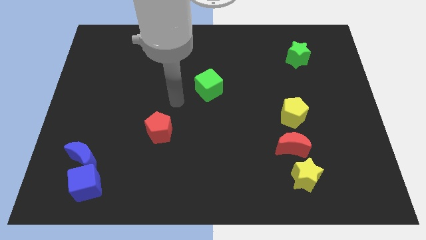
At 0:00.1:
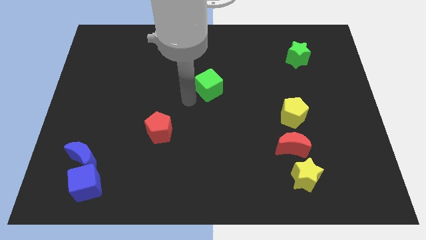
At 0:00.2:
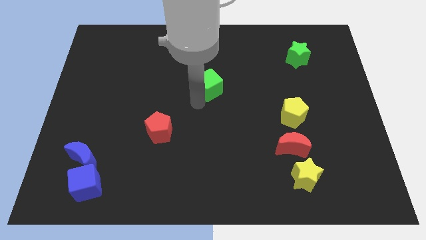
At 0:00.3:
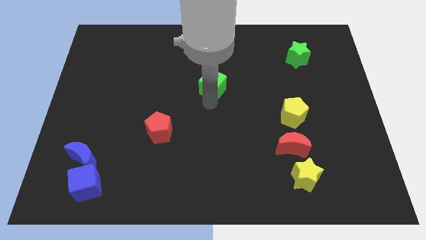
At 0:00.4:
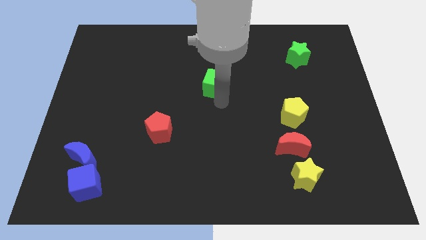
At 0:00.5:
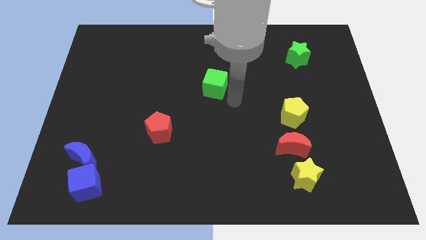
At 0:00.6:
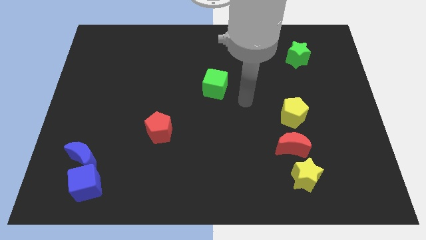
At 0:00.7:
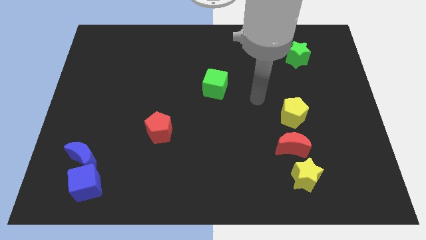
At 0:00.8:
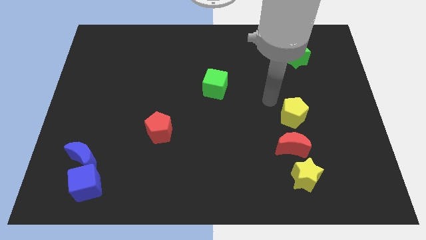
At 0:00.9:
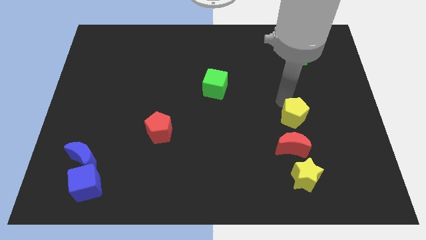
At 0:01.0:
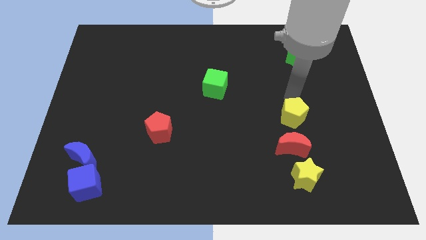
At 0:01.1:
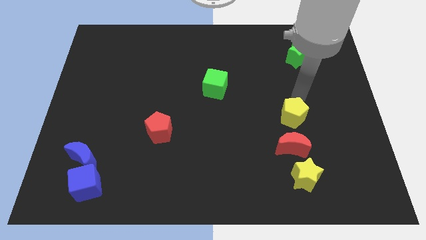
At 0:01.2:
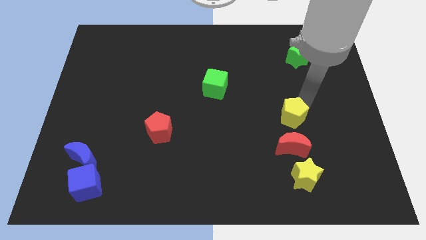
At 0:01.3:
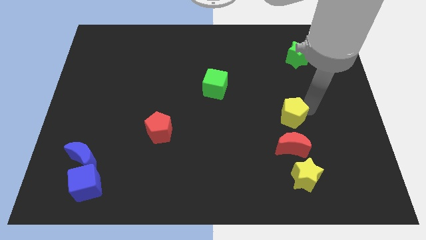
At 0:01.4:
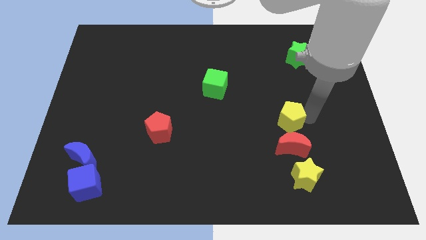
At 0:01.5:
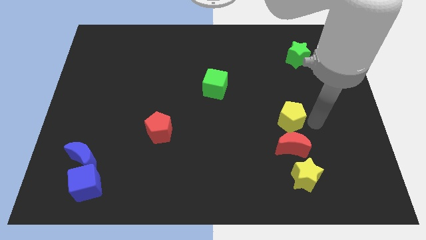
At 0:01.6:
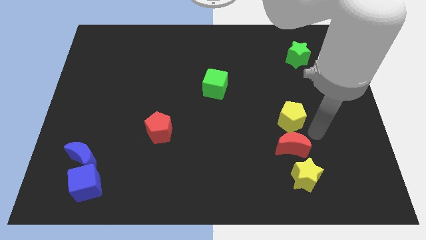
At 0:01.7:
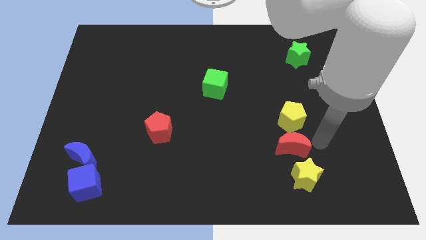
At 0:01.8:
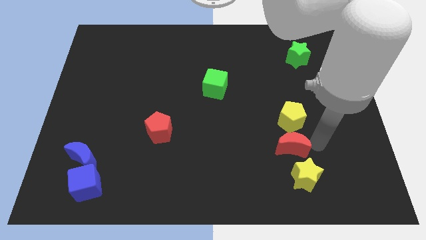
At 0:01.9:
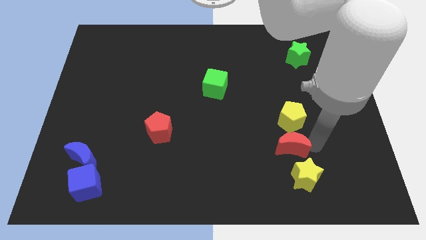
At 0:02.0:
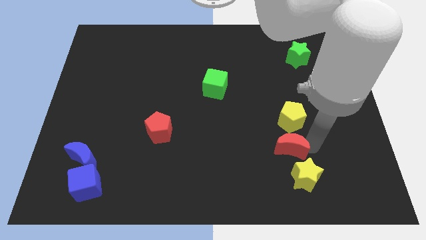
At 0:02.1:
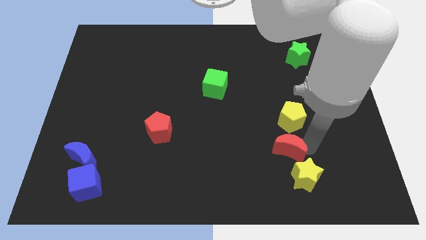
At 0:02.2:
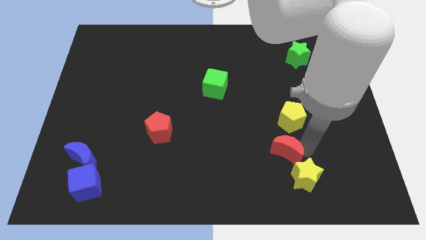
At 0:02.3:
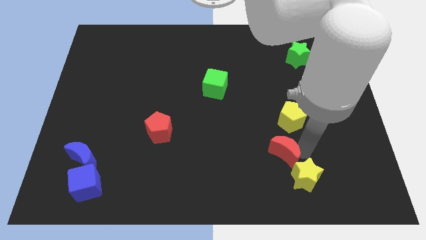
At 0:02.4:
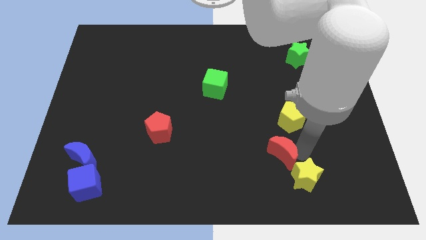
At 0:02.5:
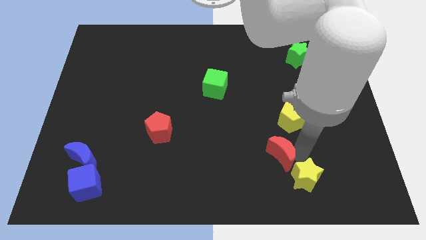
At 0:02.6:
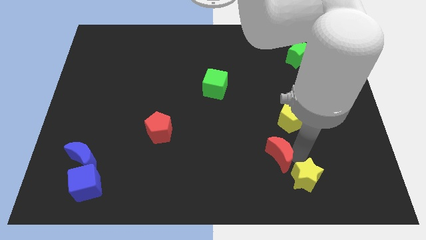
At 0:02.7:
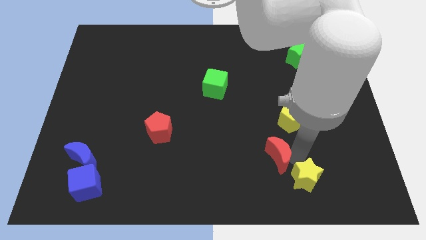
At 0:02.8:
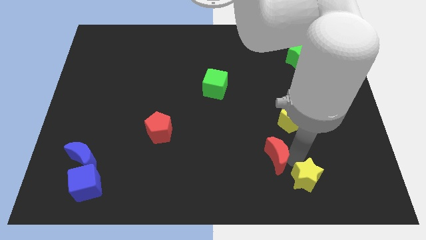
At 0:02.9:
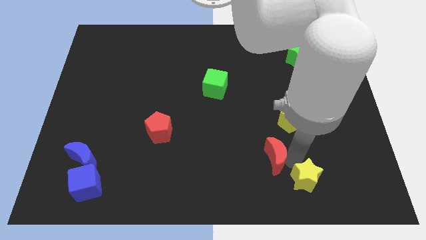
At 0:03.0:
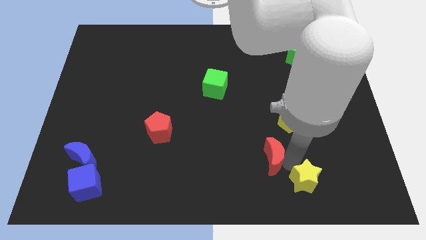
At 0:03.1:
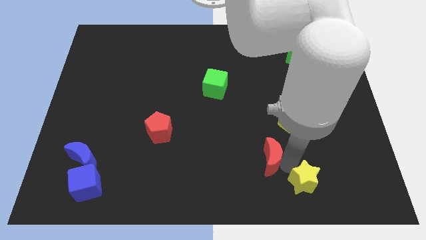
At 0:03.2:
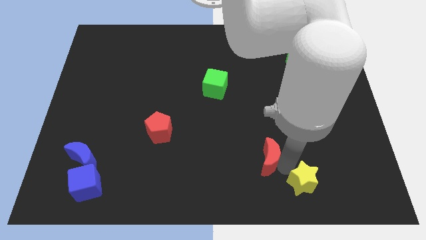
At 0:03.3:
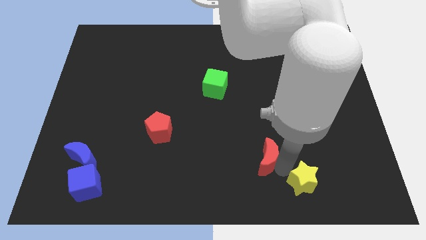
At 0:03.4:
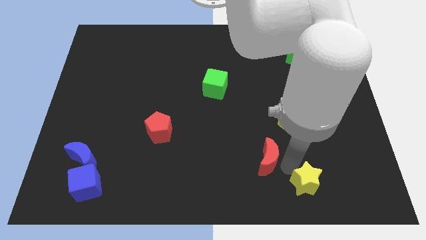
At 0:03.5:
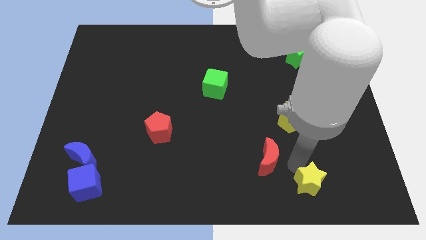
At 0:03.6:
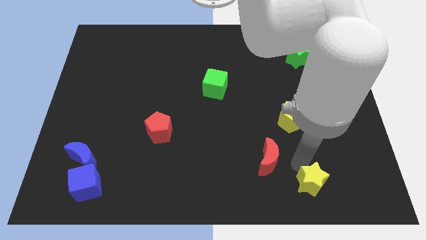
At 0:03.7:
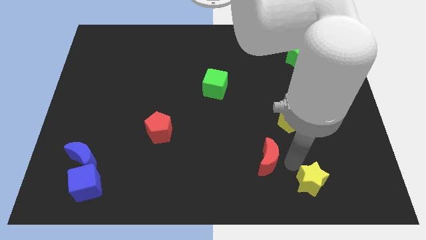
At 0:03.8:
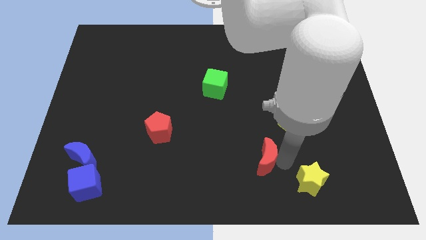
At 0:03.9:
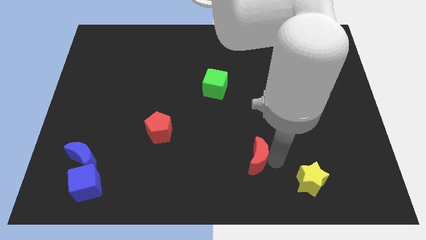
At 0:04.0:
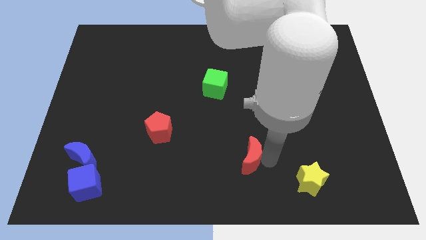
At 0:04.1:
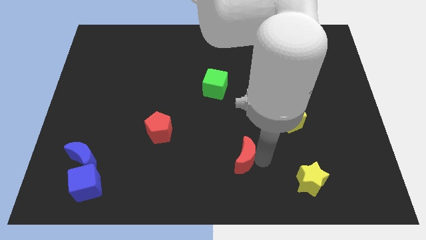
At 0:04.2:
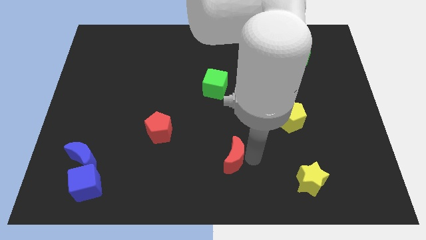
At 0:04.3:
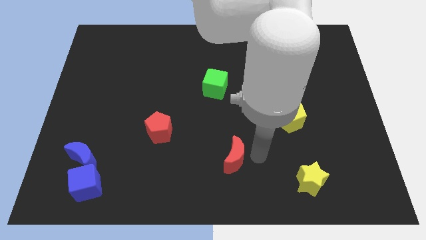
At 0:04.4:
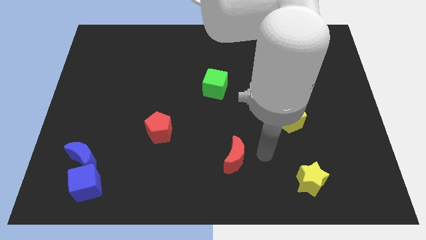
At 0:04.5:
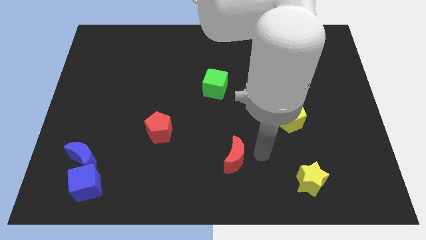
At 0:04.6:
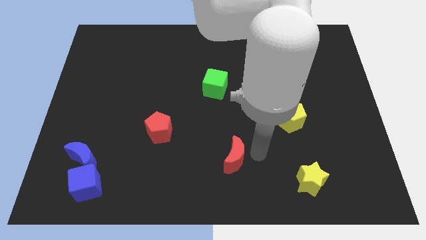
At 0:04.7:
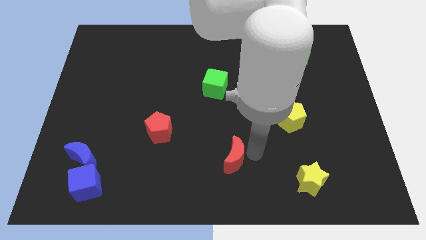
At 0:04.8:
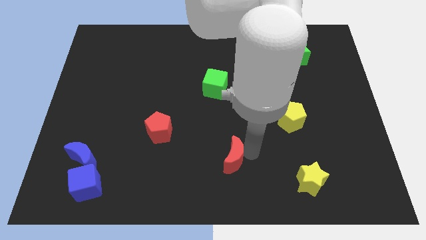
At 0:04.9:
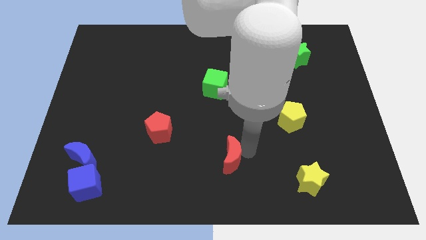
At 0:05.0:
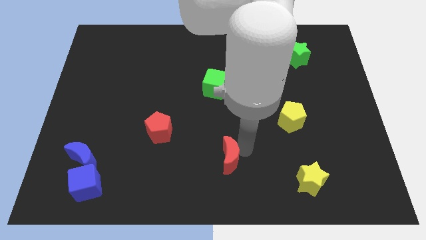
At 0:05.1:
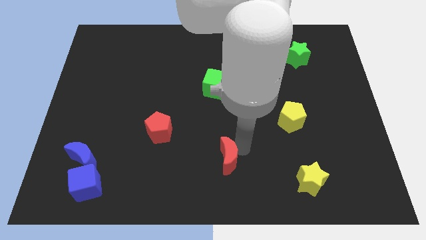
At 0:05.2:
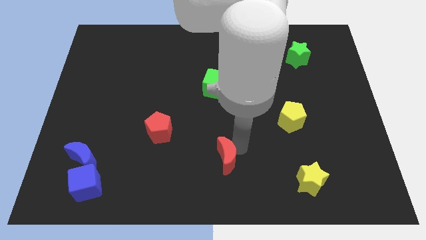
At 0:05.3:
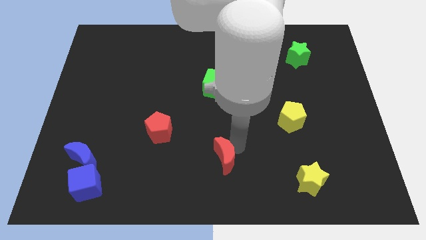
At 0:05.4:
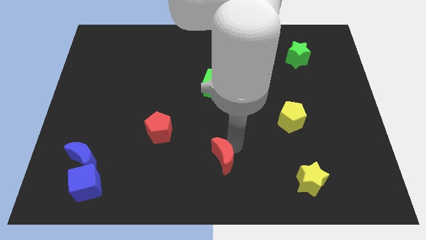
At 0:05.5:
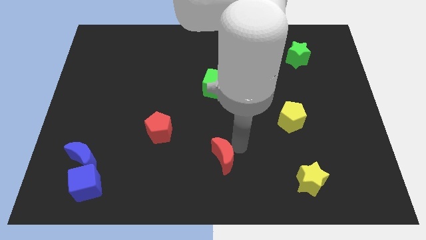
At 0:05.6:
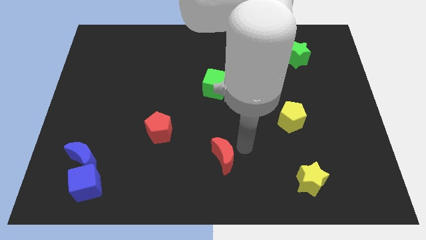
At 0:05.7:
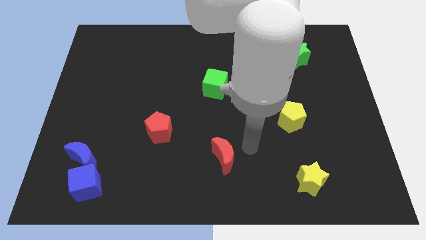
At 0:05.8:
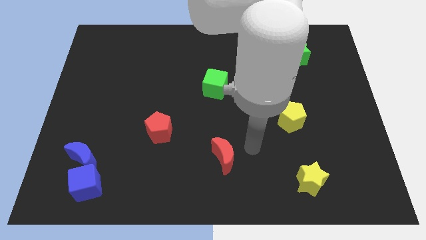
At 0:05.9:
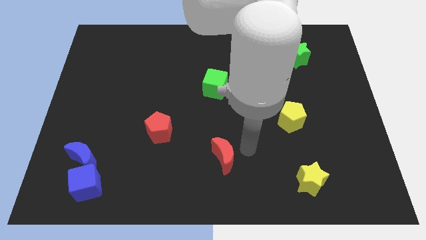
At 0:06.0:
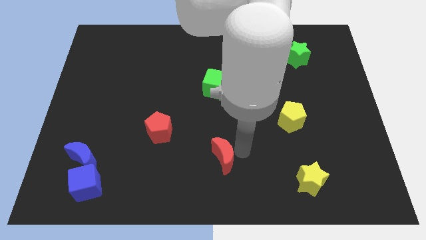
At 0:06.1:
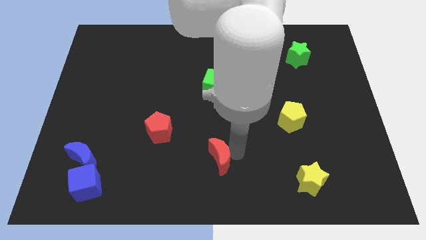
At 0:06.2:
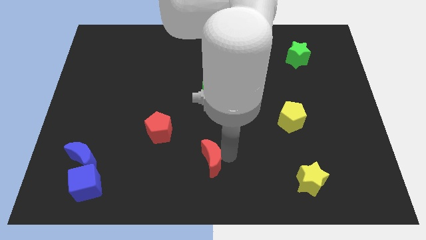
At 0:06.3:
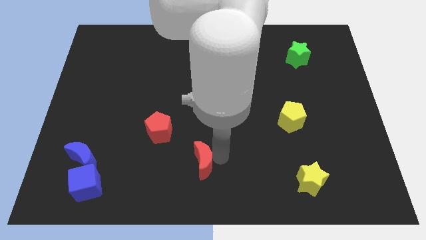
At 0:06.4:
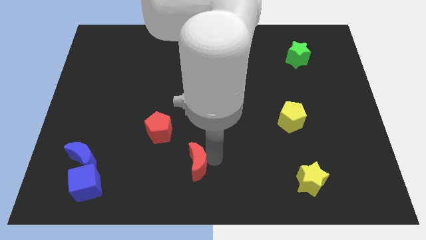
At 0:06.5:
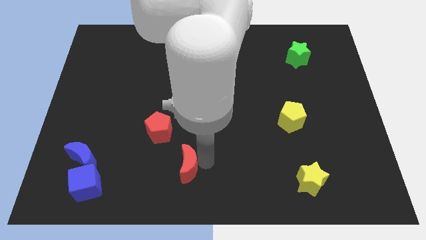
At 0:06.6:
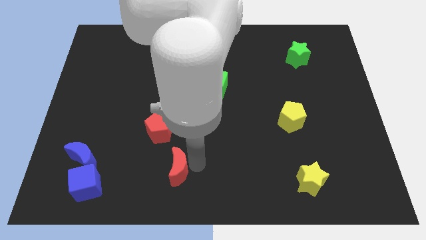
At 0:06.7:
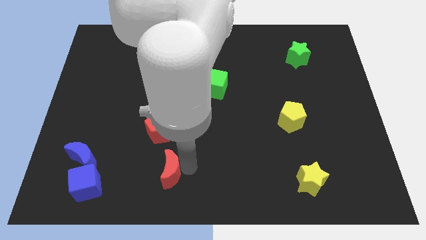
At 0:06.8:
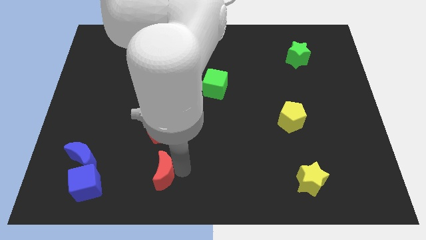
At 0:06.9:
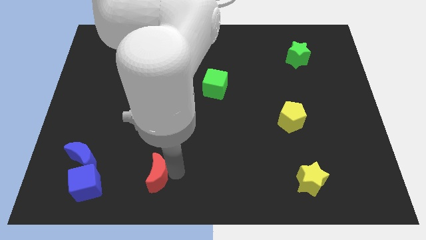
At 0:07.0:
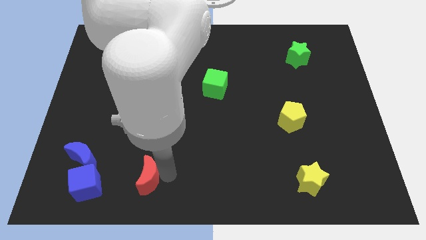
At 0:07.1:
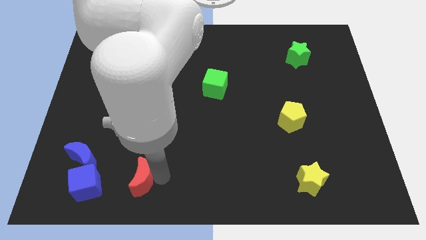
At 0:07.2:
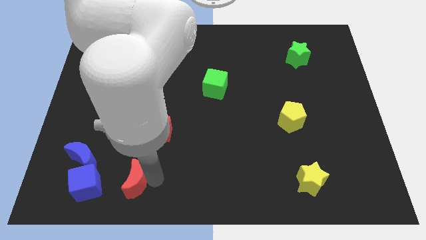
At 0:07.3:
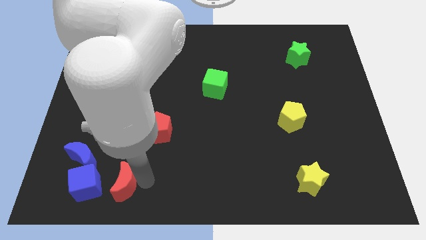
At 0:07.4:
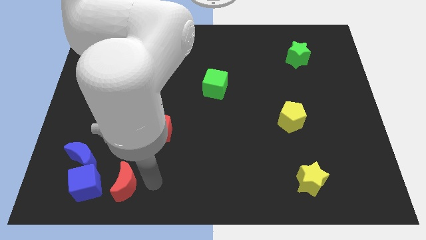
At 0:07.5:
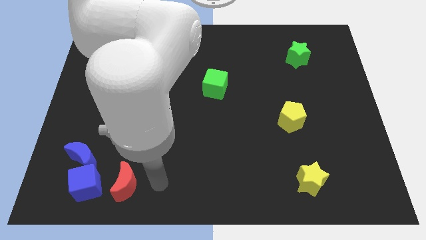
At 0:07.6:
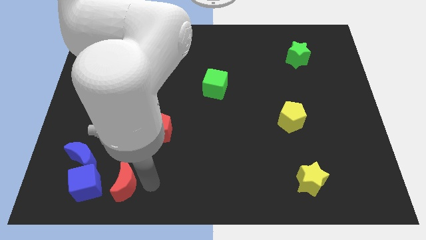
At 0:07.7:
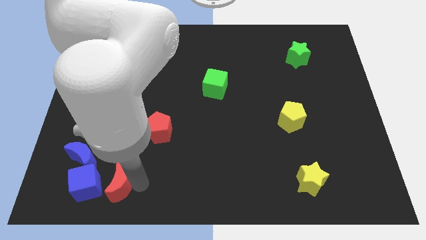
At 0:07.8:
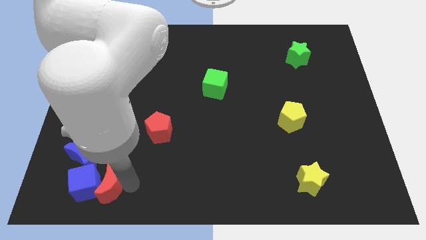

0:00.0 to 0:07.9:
push the red moon close to the blue cube
